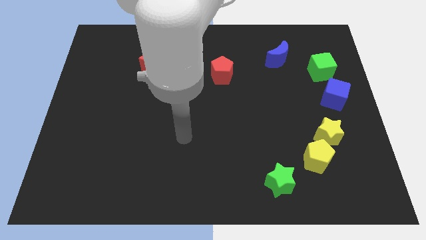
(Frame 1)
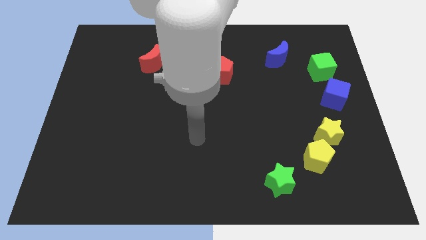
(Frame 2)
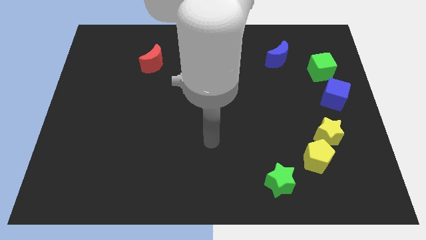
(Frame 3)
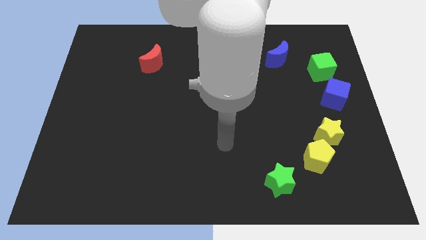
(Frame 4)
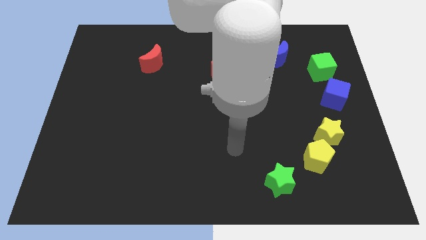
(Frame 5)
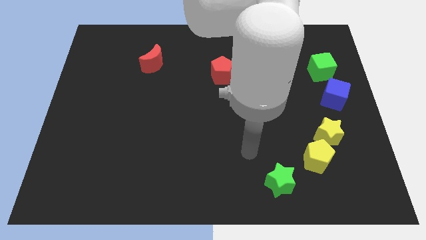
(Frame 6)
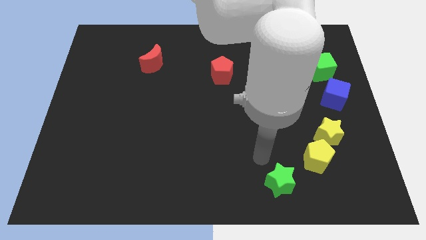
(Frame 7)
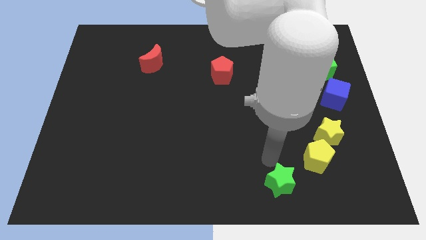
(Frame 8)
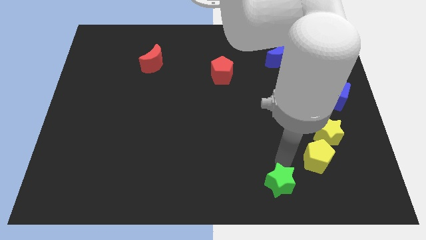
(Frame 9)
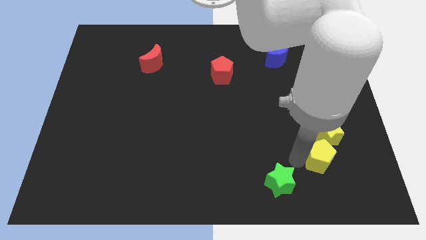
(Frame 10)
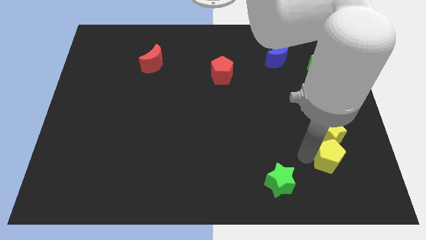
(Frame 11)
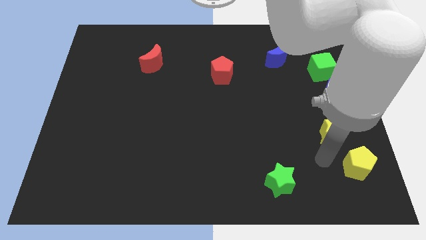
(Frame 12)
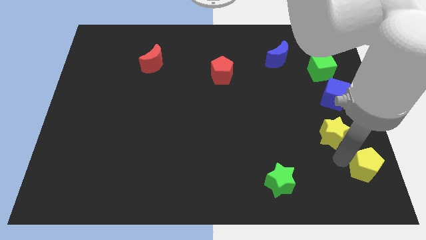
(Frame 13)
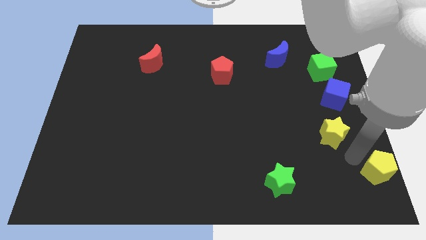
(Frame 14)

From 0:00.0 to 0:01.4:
move the yellow star away from the yellow pentagon

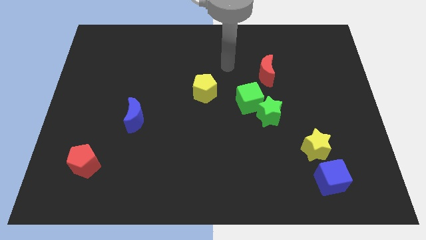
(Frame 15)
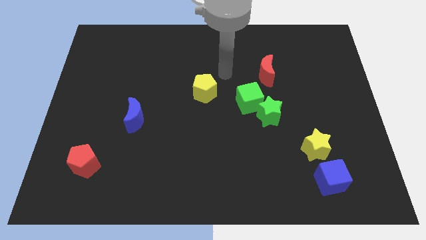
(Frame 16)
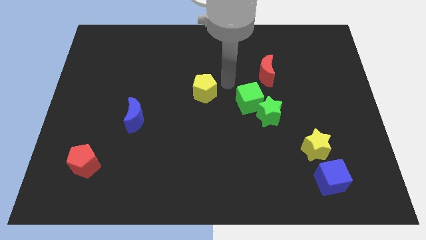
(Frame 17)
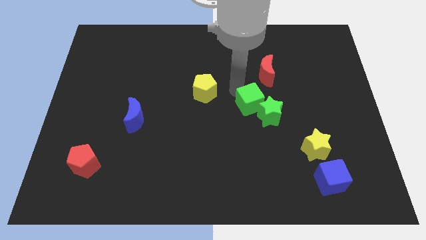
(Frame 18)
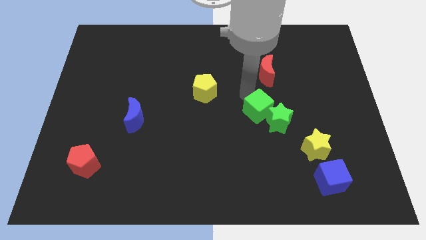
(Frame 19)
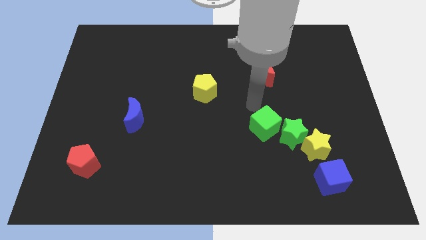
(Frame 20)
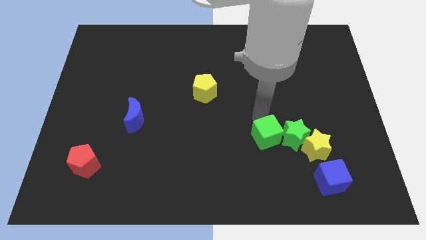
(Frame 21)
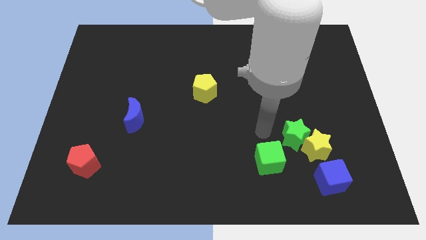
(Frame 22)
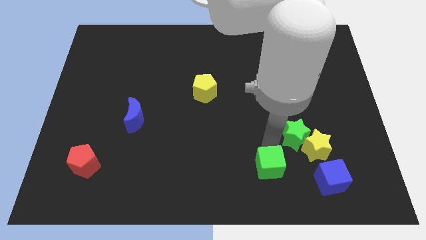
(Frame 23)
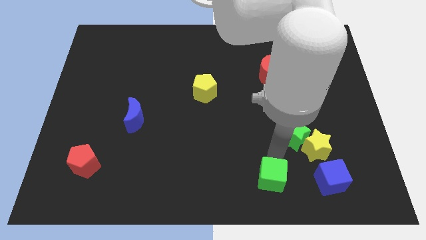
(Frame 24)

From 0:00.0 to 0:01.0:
separate the green star from the green cube

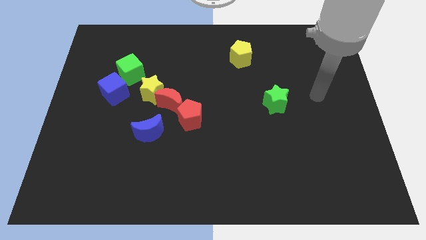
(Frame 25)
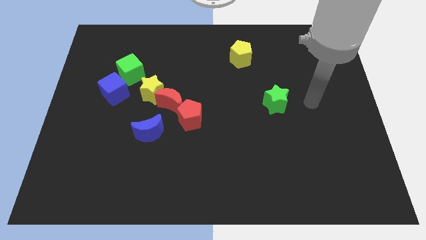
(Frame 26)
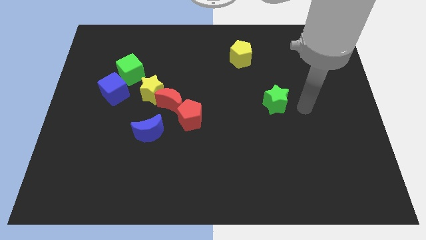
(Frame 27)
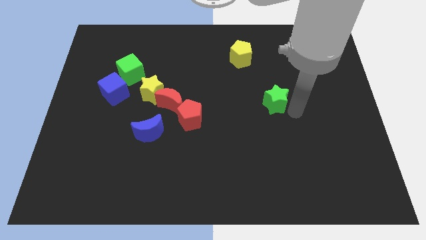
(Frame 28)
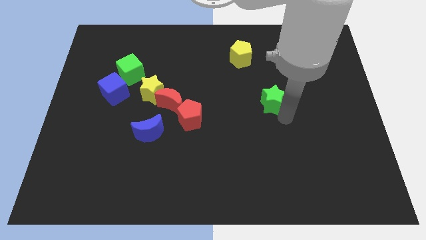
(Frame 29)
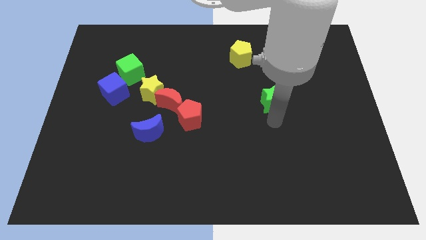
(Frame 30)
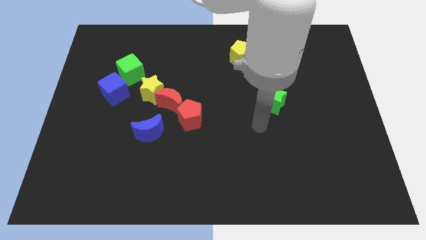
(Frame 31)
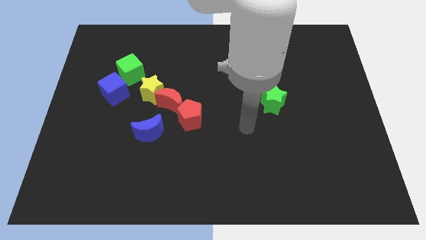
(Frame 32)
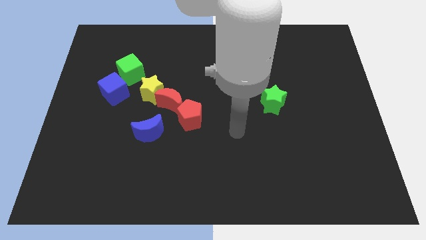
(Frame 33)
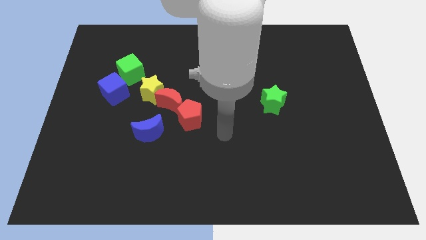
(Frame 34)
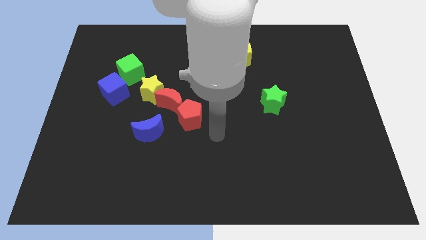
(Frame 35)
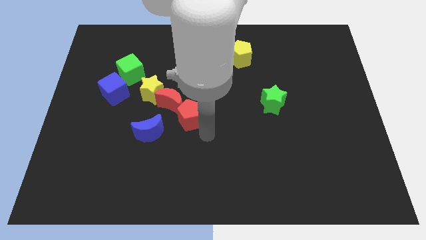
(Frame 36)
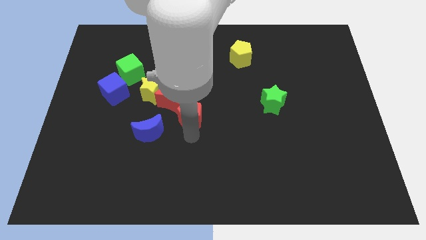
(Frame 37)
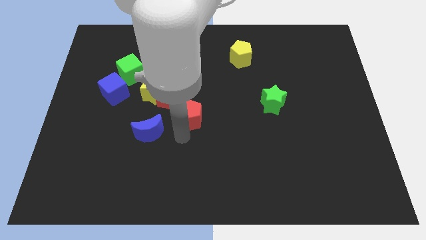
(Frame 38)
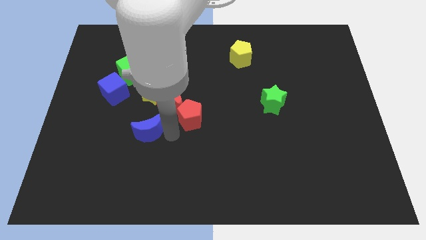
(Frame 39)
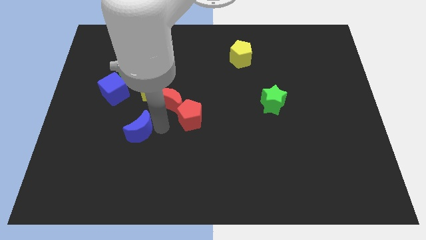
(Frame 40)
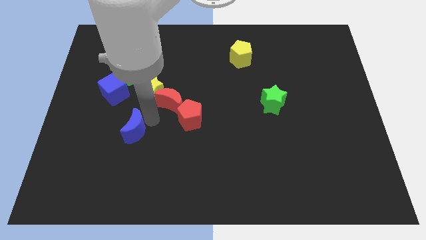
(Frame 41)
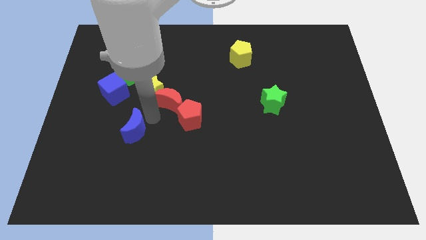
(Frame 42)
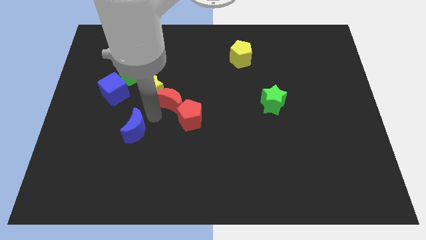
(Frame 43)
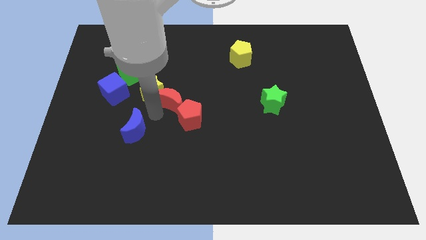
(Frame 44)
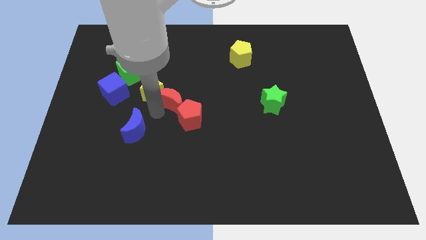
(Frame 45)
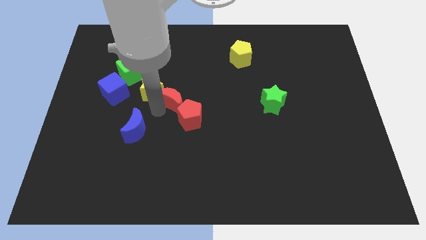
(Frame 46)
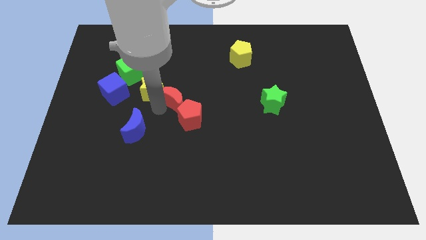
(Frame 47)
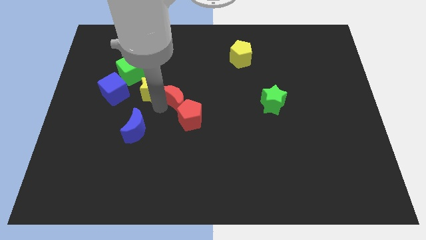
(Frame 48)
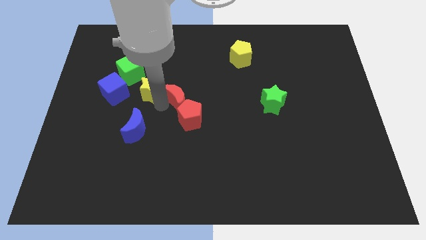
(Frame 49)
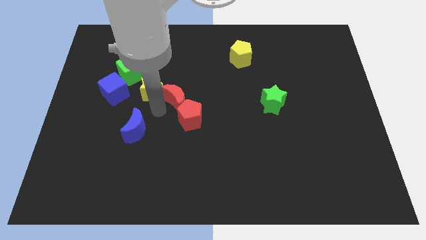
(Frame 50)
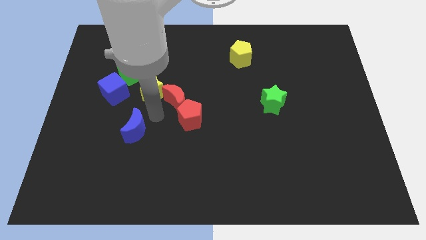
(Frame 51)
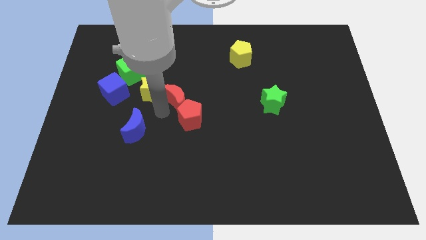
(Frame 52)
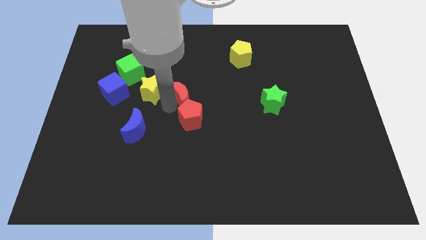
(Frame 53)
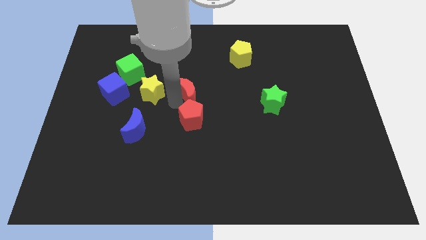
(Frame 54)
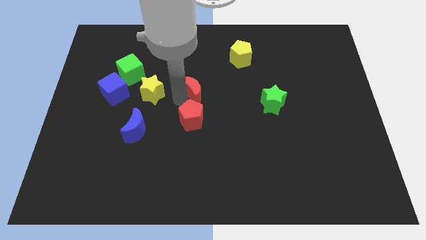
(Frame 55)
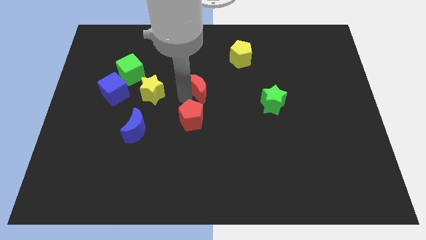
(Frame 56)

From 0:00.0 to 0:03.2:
pull the red moon apart from the group

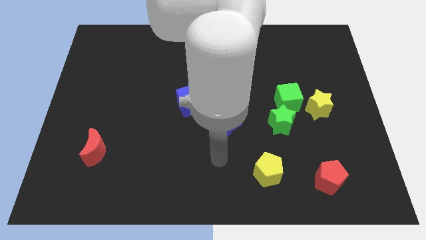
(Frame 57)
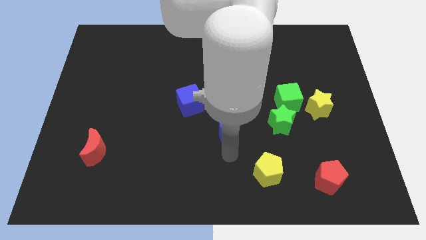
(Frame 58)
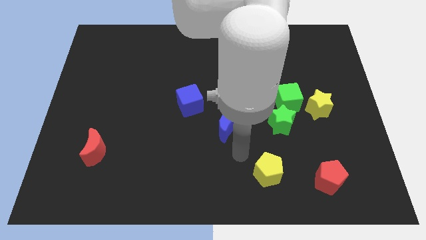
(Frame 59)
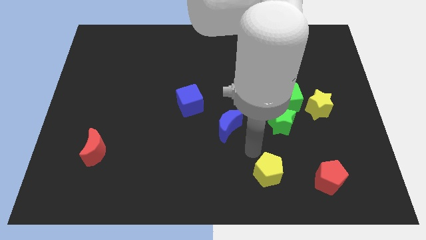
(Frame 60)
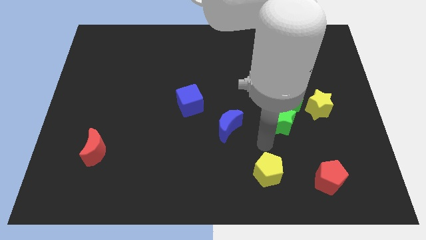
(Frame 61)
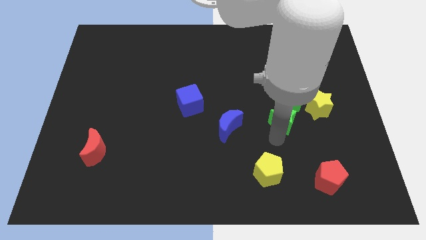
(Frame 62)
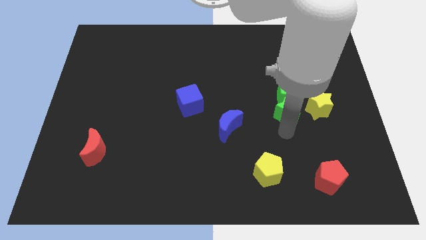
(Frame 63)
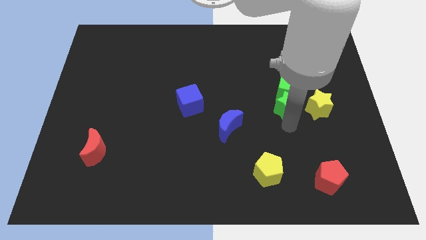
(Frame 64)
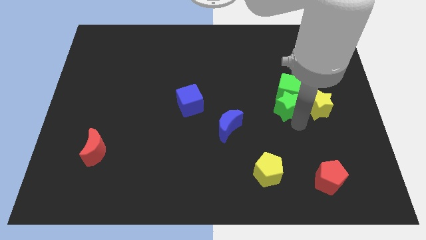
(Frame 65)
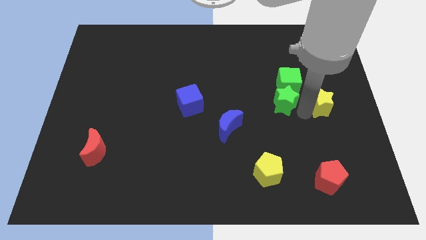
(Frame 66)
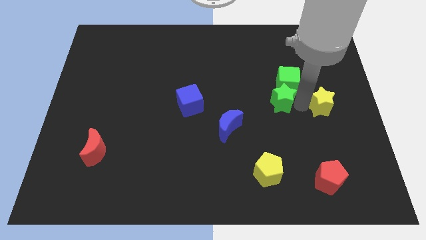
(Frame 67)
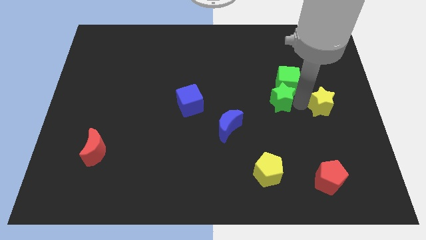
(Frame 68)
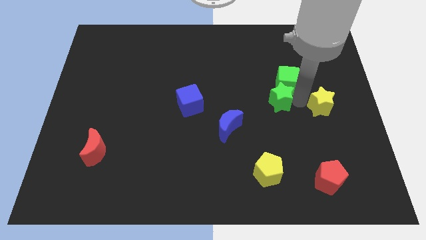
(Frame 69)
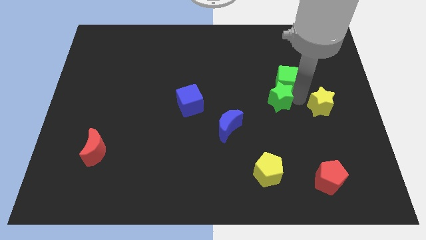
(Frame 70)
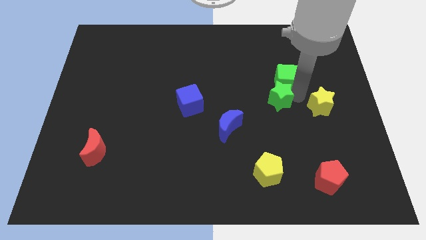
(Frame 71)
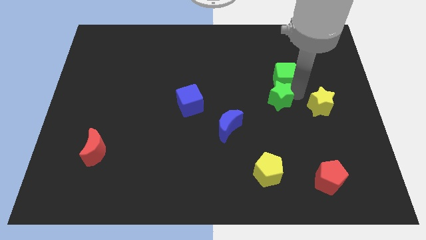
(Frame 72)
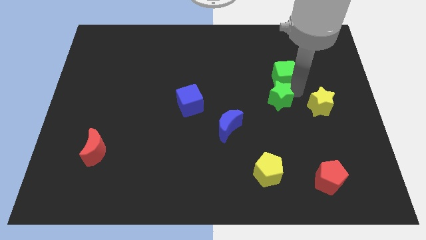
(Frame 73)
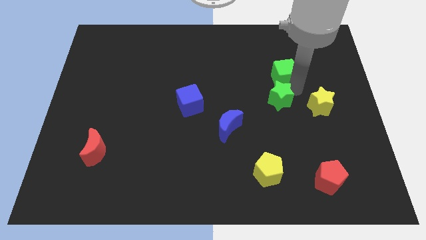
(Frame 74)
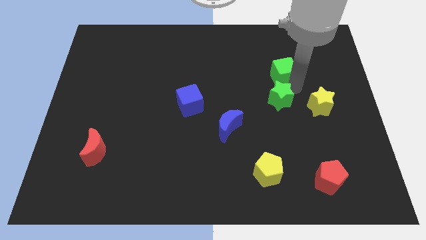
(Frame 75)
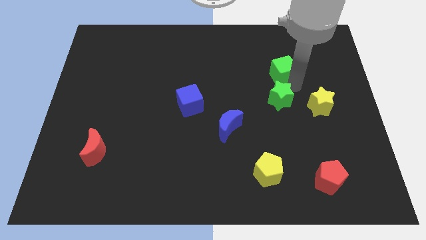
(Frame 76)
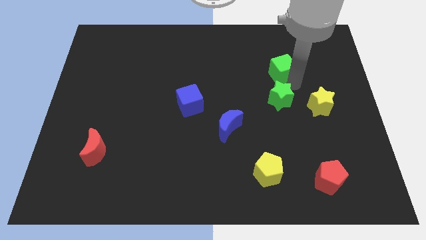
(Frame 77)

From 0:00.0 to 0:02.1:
move the green cube away from the green star and yellow star

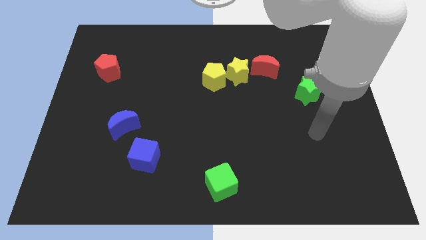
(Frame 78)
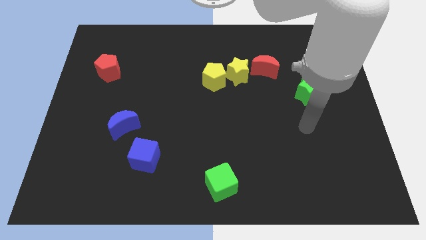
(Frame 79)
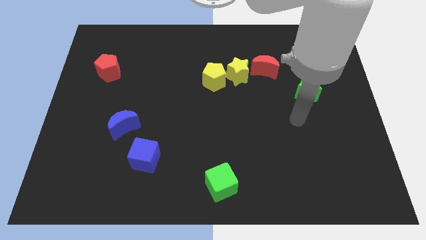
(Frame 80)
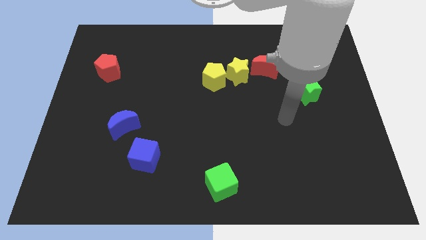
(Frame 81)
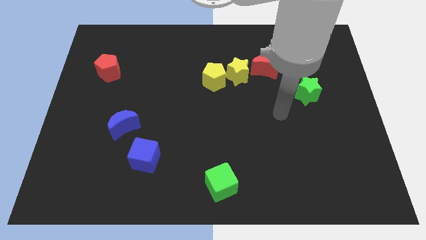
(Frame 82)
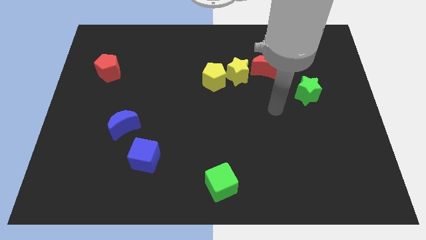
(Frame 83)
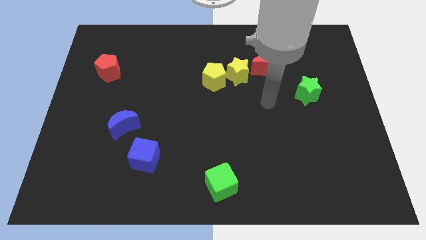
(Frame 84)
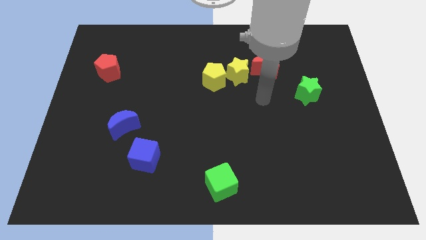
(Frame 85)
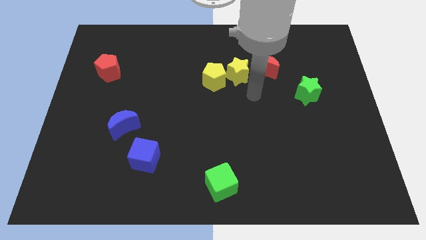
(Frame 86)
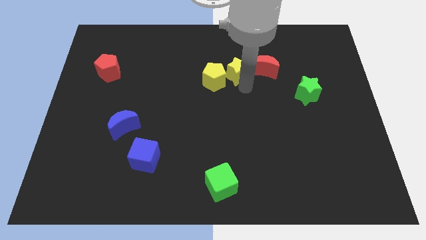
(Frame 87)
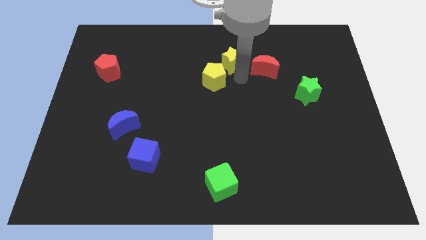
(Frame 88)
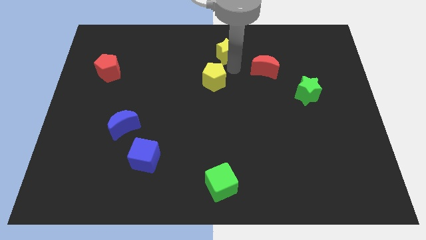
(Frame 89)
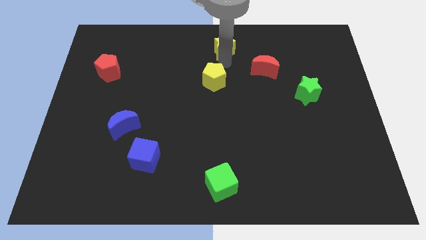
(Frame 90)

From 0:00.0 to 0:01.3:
separate the yellow pentagon from the yellow star

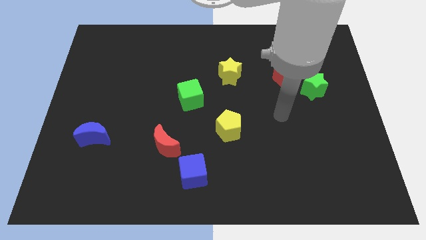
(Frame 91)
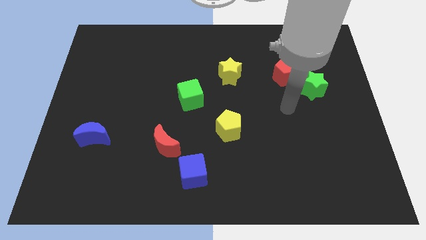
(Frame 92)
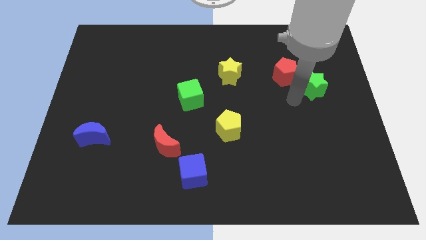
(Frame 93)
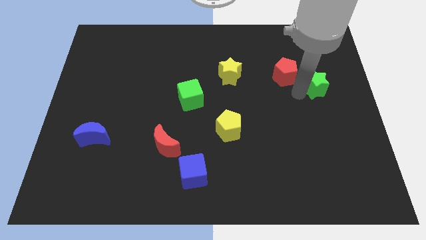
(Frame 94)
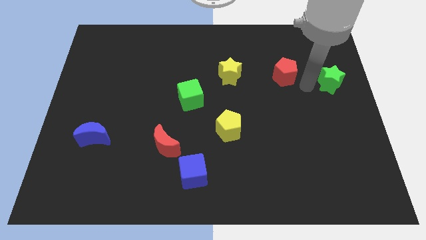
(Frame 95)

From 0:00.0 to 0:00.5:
separate the red pentagon from the green star

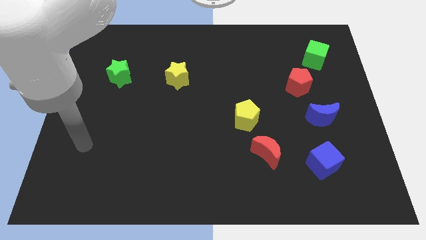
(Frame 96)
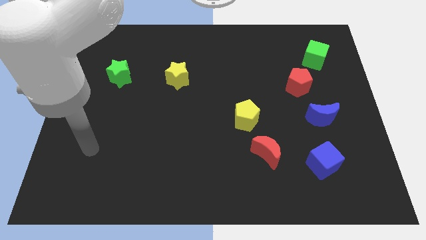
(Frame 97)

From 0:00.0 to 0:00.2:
move the red moon away from the yellow pentagon
